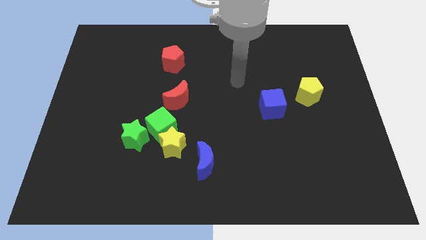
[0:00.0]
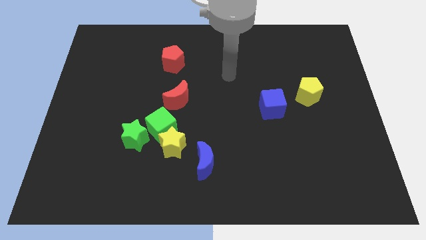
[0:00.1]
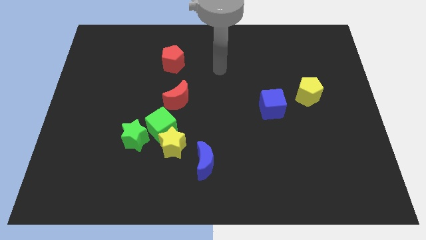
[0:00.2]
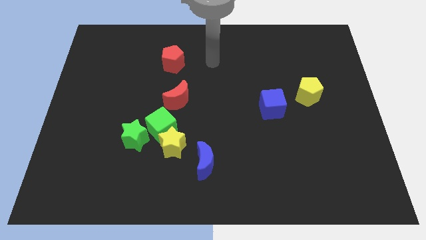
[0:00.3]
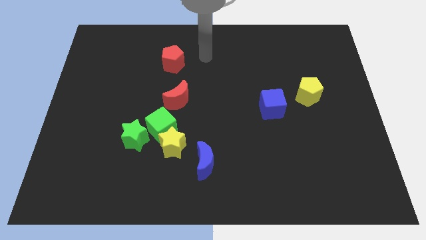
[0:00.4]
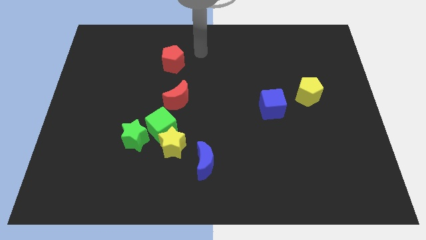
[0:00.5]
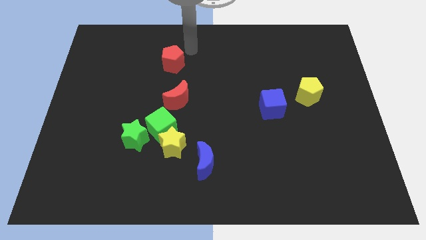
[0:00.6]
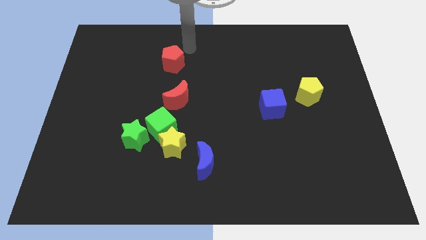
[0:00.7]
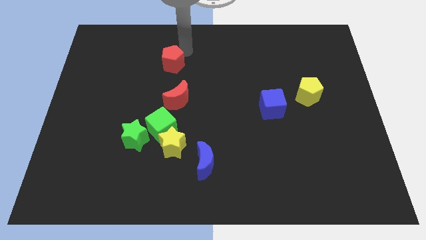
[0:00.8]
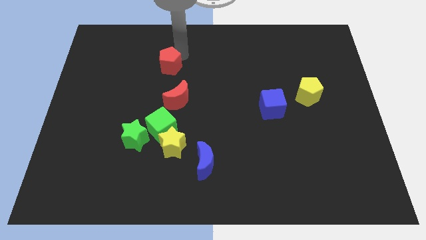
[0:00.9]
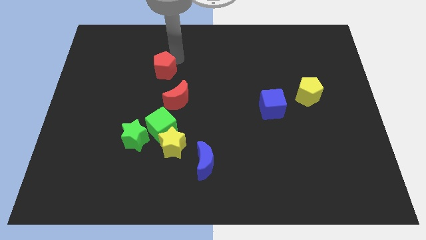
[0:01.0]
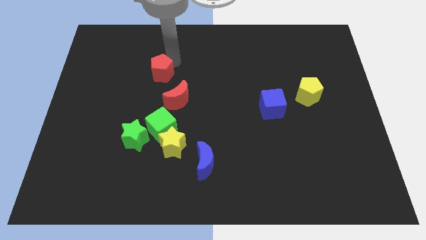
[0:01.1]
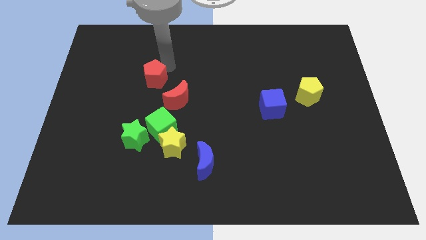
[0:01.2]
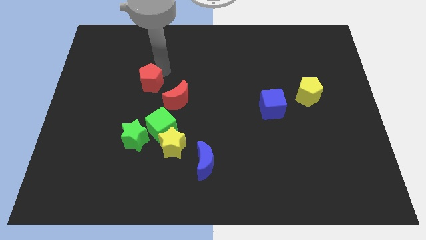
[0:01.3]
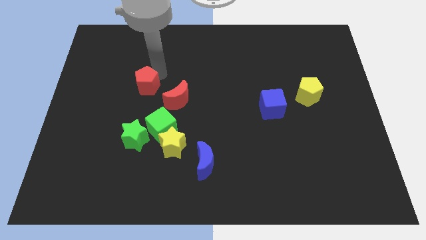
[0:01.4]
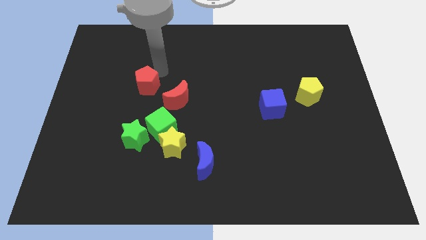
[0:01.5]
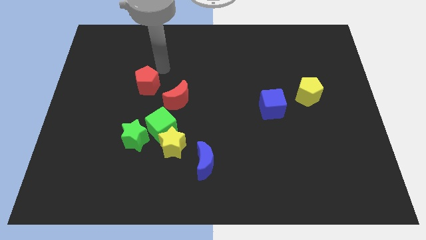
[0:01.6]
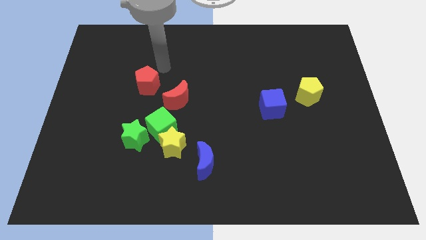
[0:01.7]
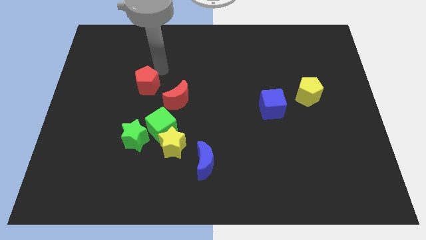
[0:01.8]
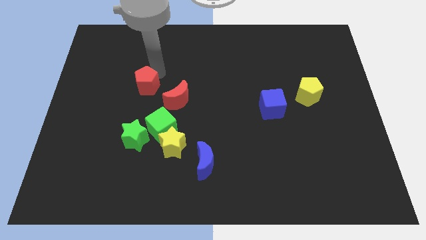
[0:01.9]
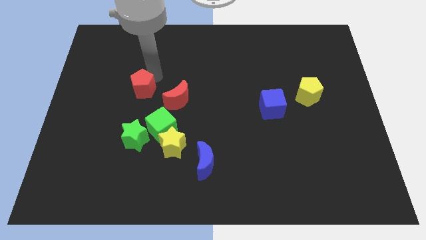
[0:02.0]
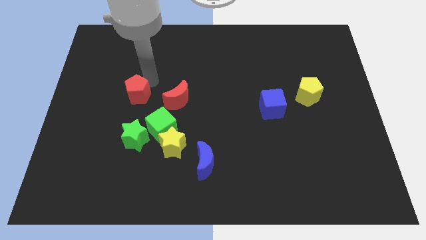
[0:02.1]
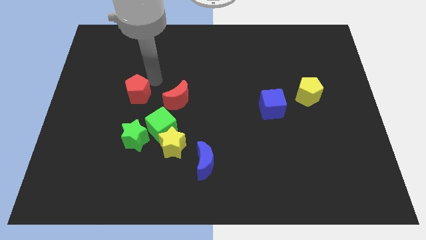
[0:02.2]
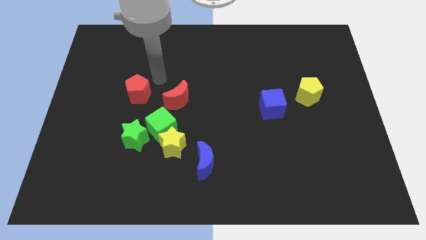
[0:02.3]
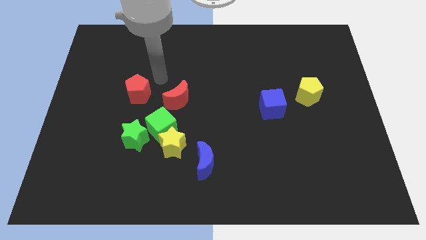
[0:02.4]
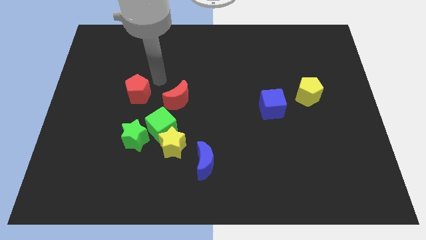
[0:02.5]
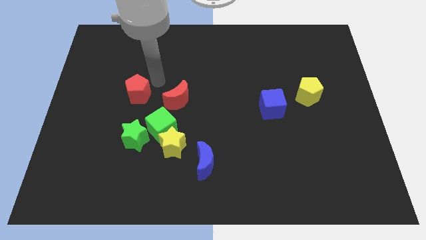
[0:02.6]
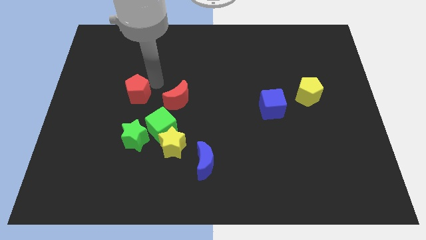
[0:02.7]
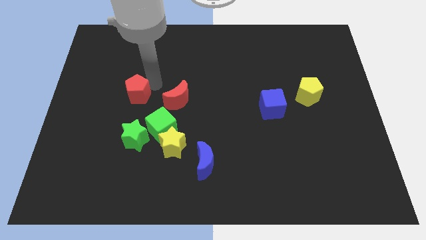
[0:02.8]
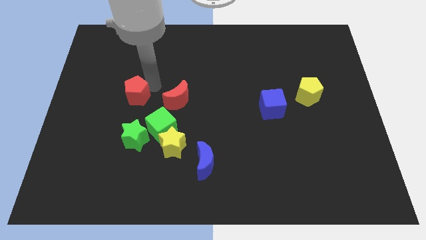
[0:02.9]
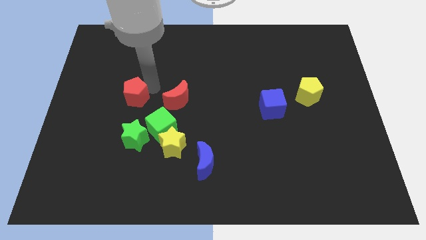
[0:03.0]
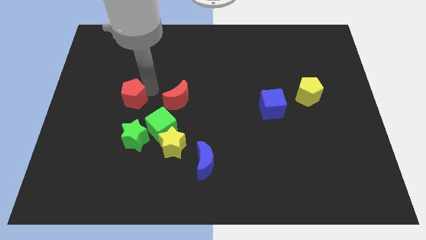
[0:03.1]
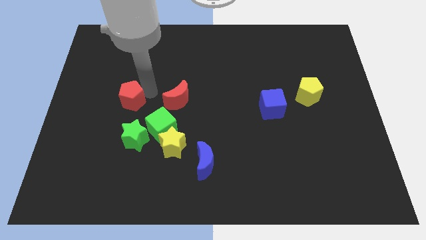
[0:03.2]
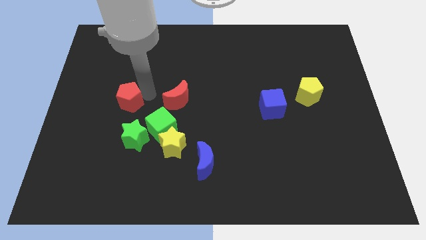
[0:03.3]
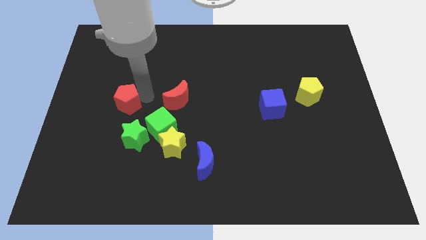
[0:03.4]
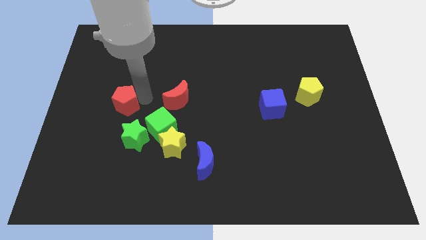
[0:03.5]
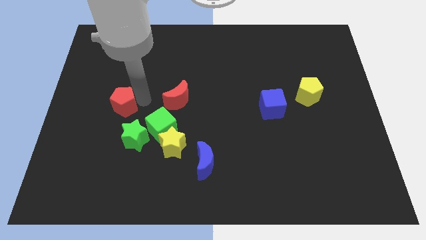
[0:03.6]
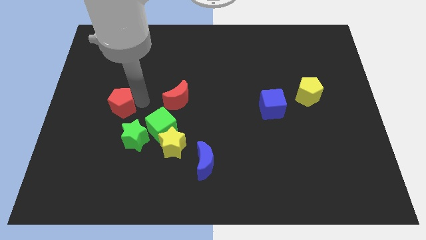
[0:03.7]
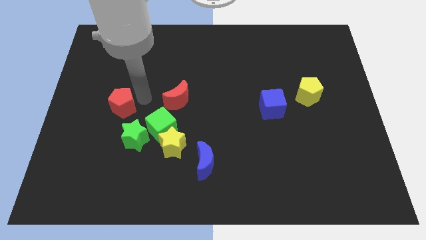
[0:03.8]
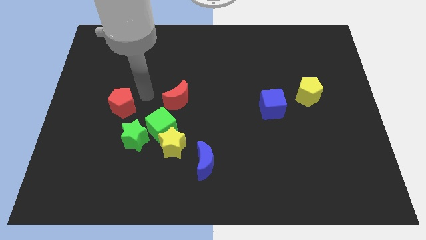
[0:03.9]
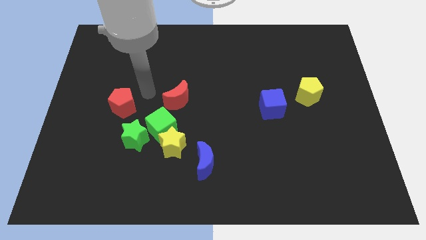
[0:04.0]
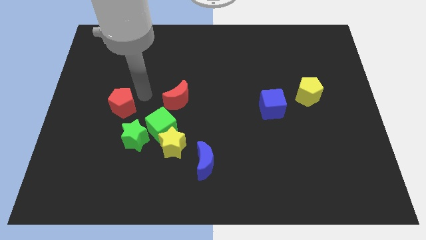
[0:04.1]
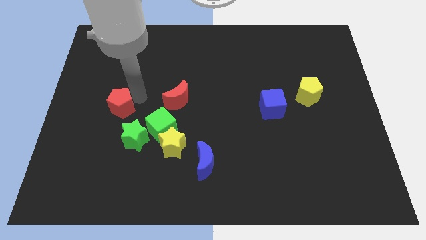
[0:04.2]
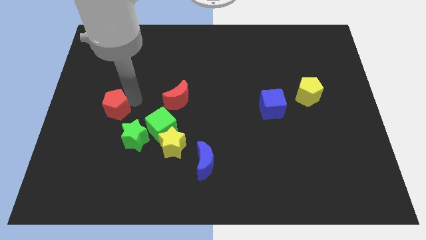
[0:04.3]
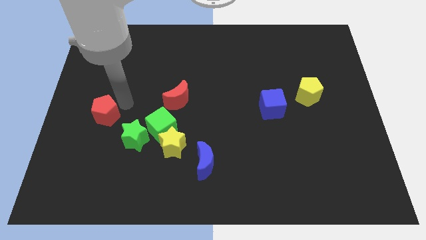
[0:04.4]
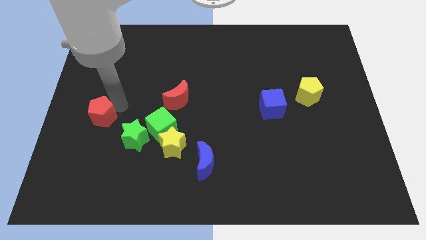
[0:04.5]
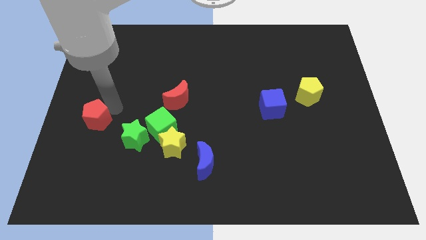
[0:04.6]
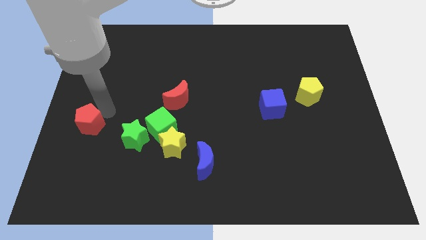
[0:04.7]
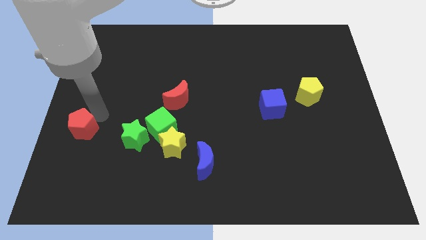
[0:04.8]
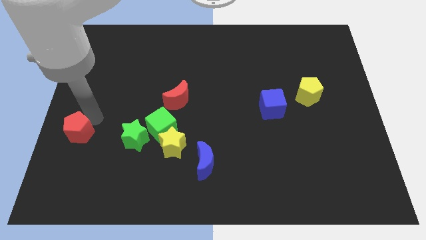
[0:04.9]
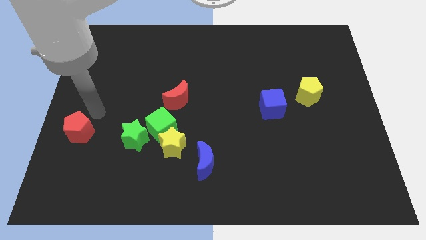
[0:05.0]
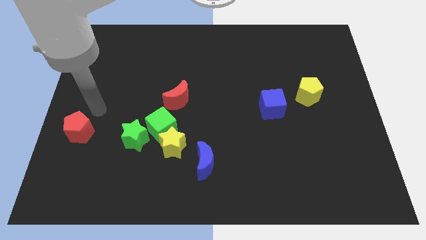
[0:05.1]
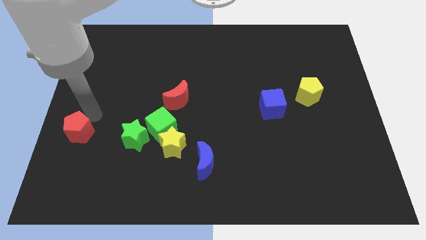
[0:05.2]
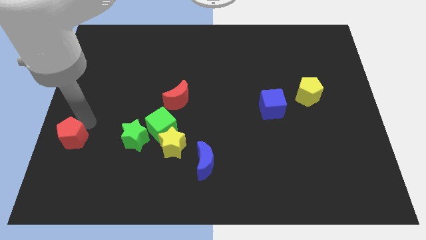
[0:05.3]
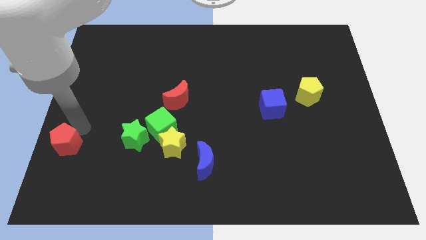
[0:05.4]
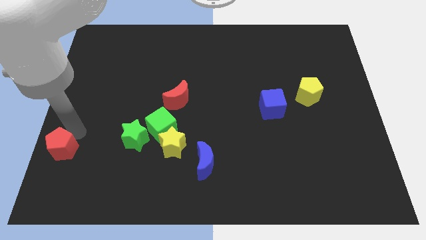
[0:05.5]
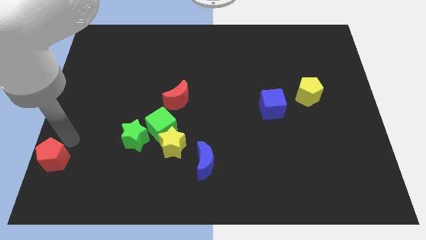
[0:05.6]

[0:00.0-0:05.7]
push the red pentagon to the bottom left

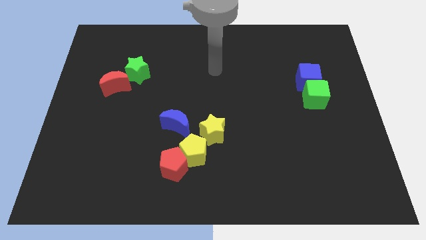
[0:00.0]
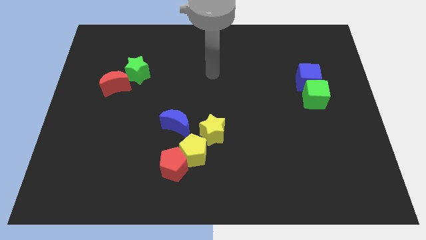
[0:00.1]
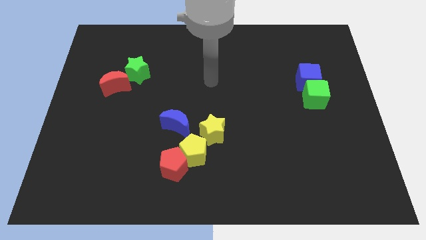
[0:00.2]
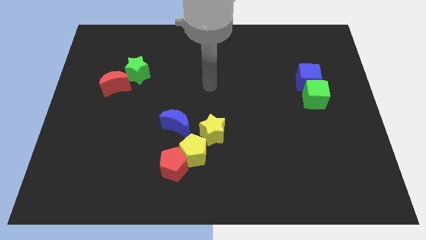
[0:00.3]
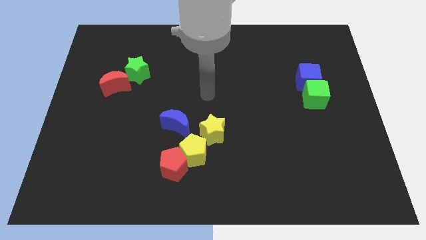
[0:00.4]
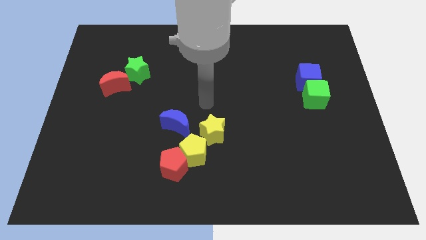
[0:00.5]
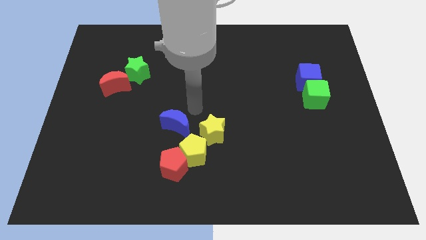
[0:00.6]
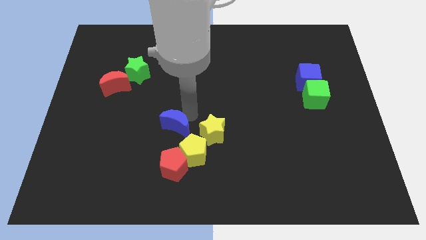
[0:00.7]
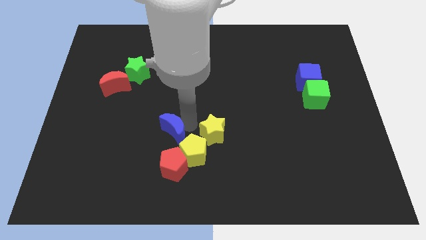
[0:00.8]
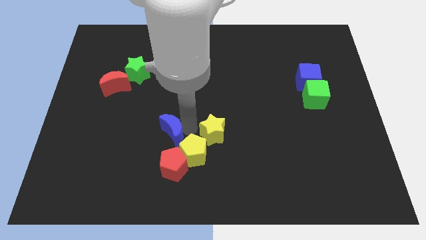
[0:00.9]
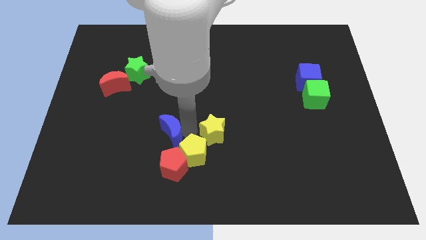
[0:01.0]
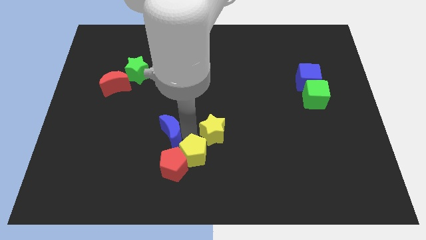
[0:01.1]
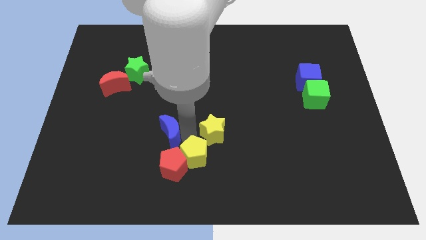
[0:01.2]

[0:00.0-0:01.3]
put the yellow pentagon to the bottom side
